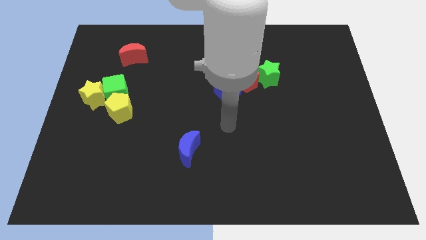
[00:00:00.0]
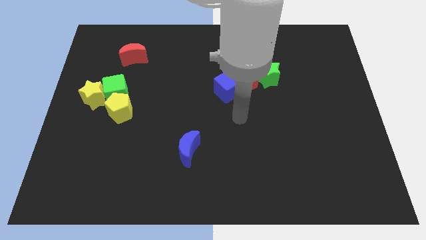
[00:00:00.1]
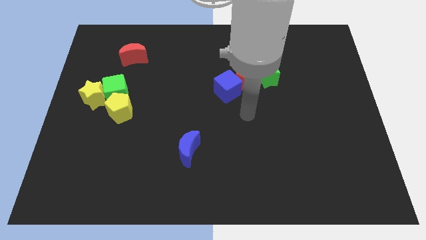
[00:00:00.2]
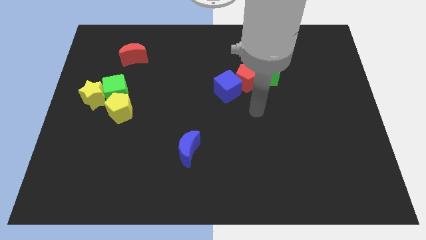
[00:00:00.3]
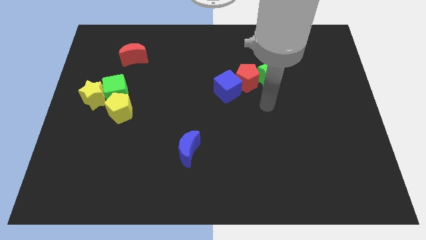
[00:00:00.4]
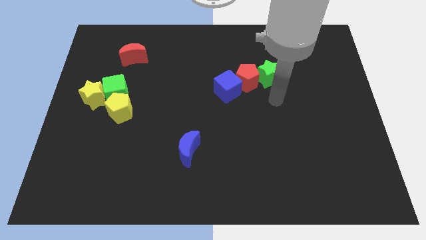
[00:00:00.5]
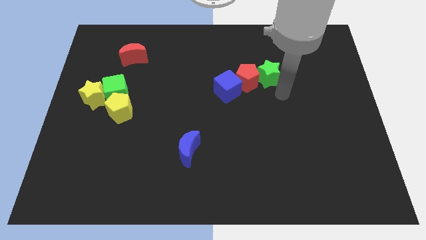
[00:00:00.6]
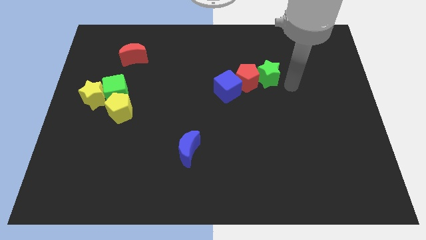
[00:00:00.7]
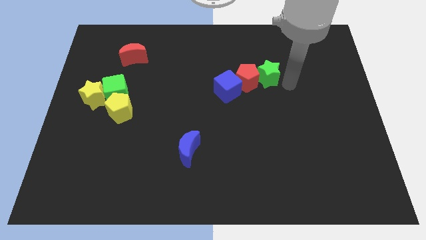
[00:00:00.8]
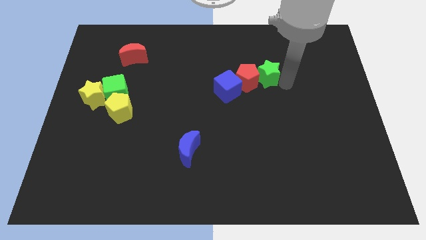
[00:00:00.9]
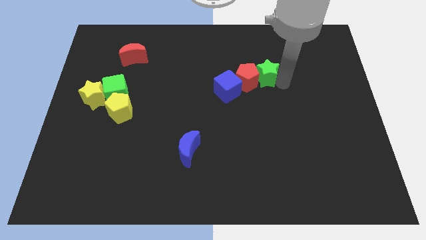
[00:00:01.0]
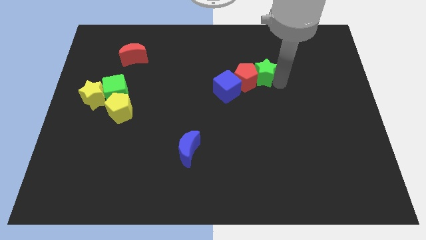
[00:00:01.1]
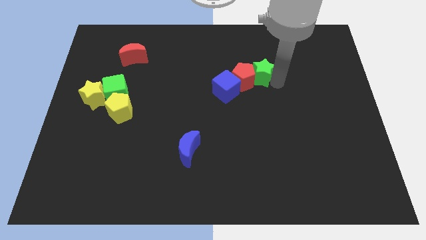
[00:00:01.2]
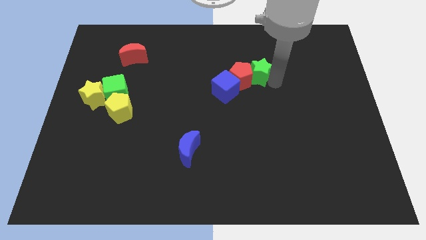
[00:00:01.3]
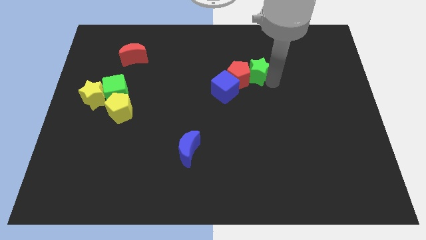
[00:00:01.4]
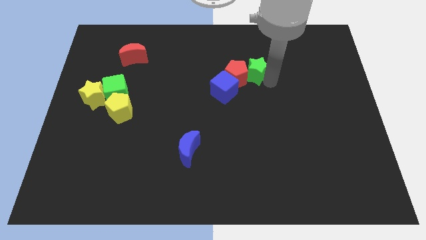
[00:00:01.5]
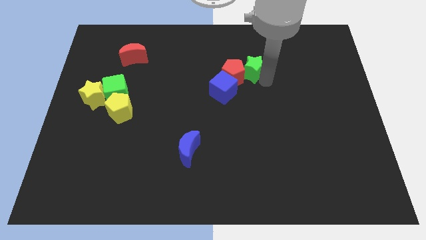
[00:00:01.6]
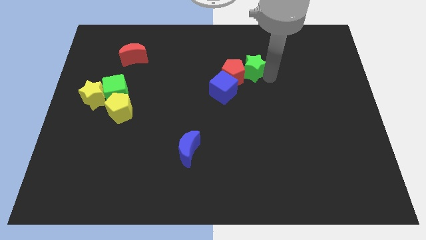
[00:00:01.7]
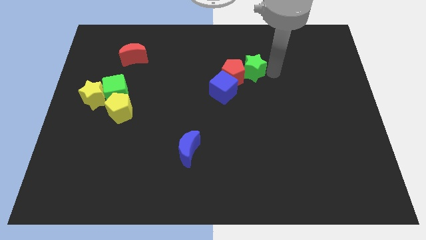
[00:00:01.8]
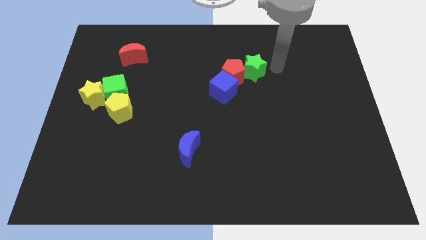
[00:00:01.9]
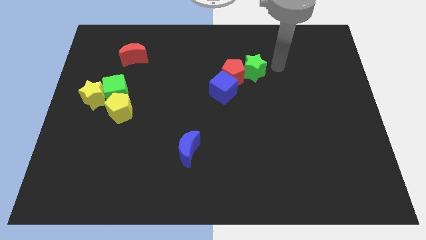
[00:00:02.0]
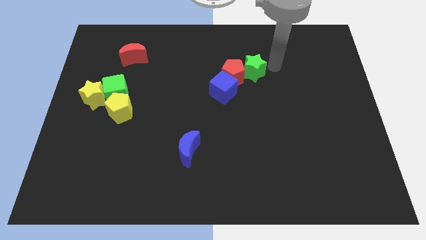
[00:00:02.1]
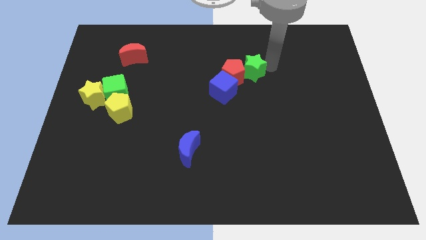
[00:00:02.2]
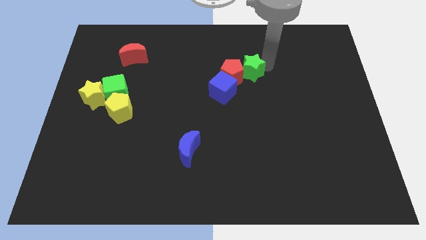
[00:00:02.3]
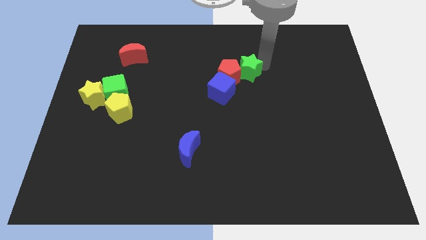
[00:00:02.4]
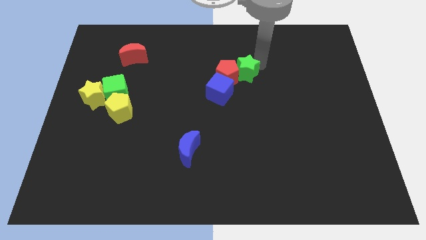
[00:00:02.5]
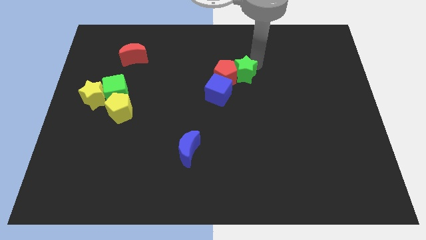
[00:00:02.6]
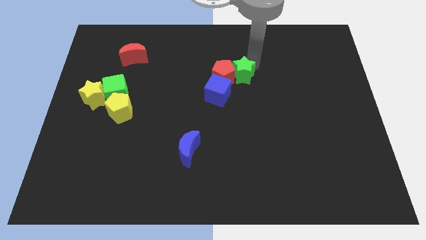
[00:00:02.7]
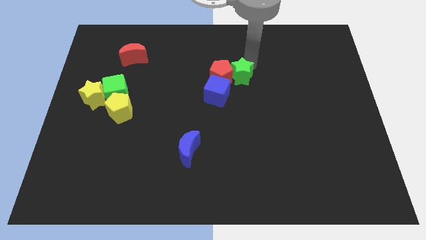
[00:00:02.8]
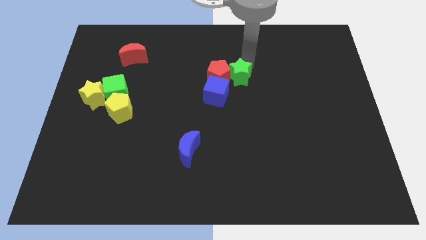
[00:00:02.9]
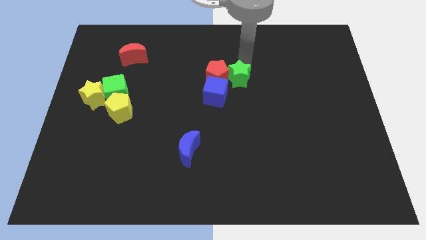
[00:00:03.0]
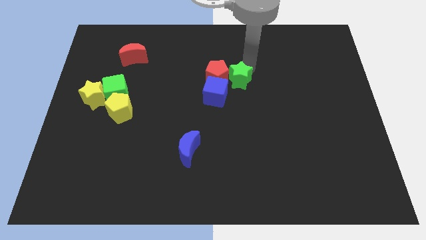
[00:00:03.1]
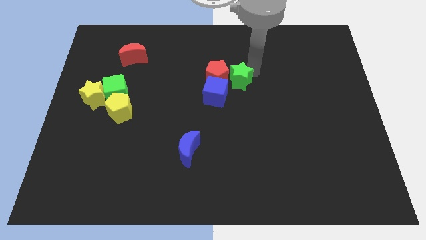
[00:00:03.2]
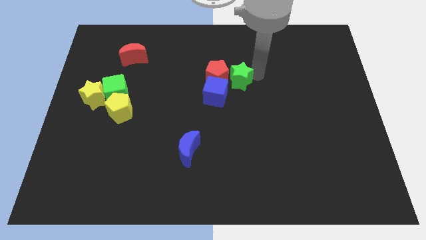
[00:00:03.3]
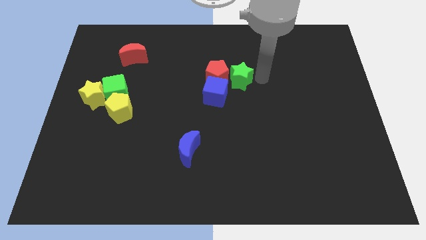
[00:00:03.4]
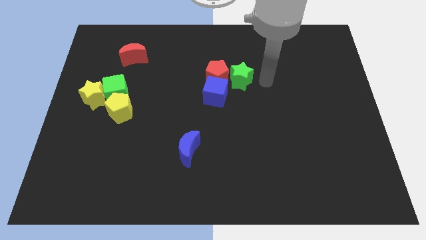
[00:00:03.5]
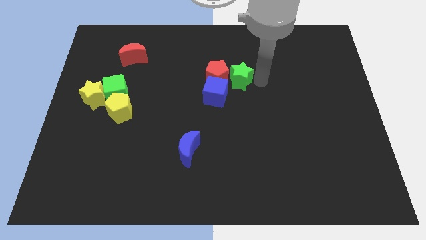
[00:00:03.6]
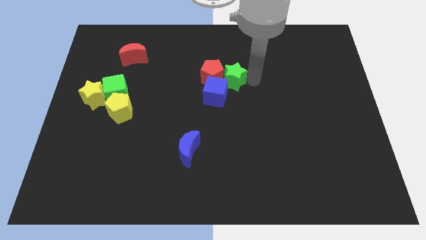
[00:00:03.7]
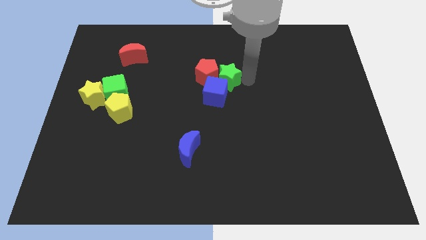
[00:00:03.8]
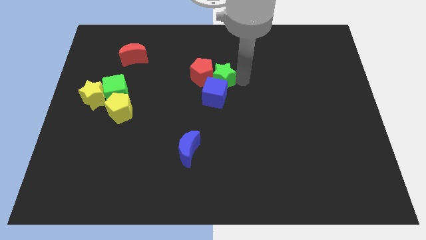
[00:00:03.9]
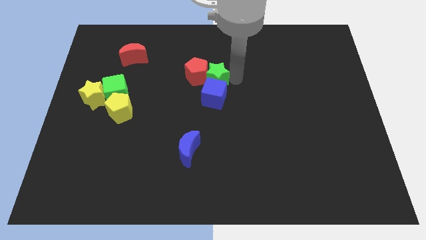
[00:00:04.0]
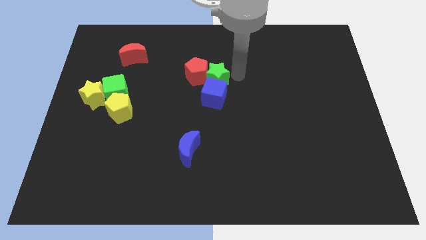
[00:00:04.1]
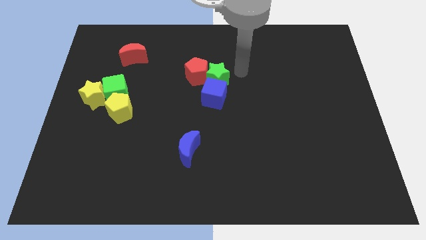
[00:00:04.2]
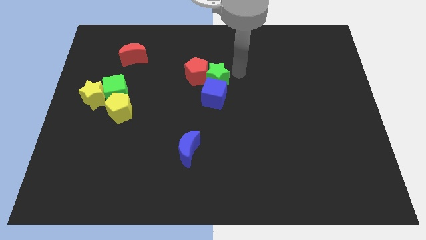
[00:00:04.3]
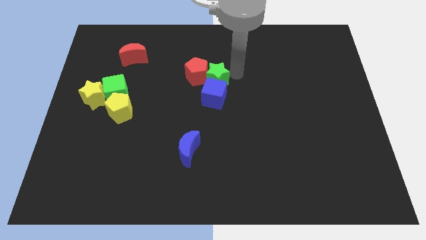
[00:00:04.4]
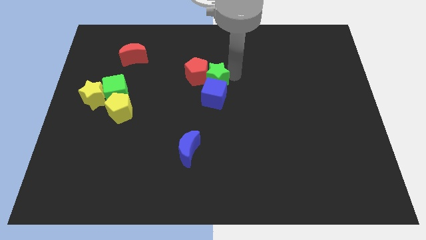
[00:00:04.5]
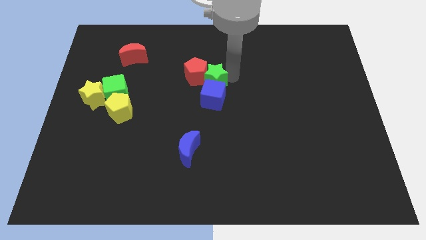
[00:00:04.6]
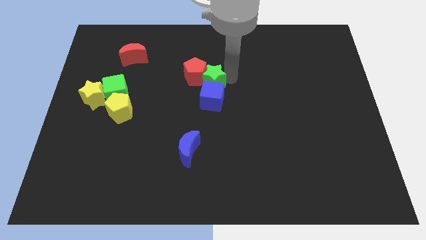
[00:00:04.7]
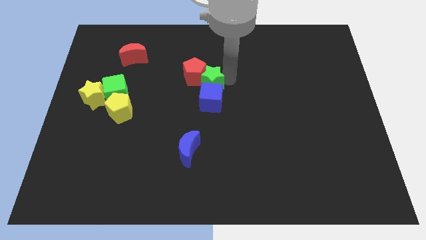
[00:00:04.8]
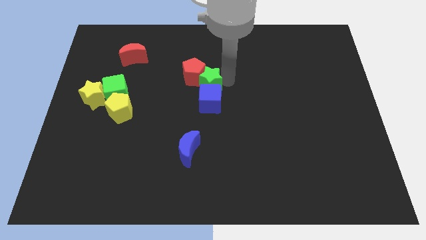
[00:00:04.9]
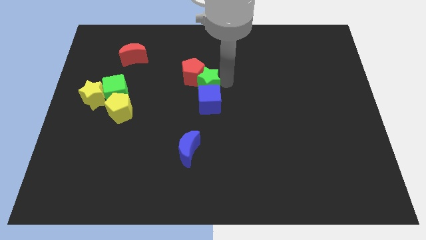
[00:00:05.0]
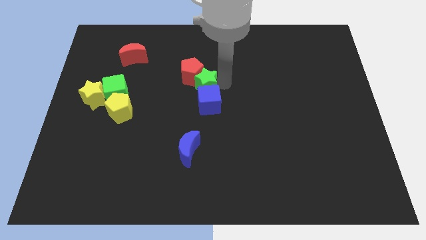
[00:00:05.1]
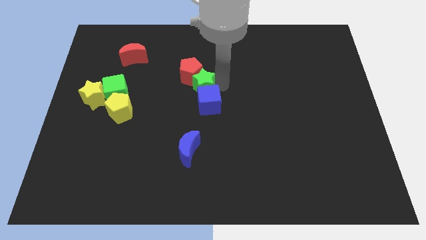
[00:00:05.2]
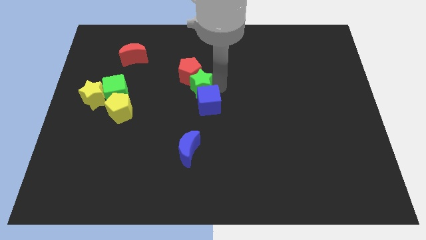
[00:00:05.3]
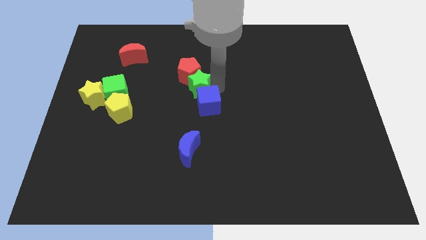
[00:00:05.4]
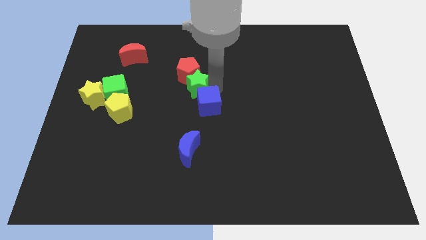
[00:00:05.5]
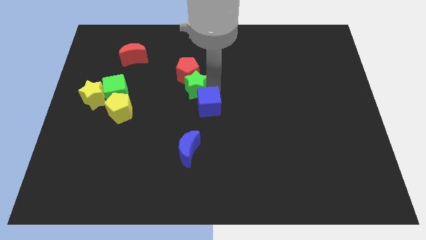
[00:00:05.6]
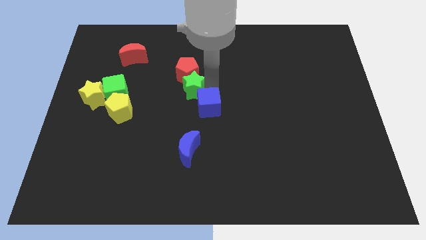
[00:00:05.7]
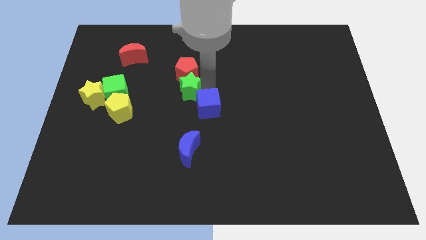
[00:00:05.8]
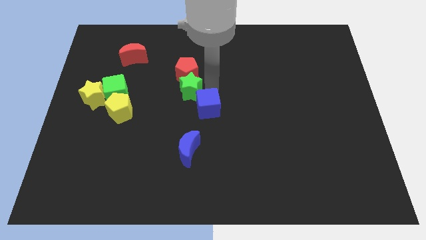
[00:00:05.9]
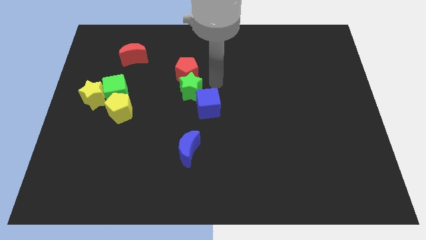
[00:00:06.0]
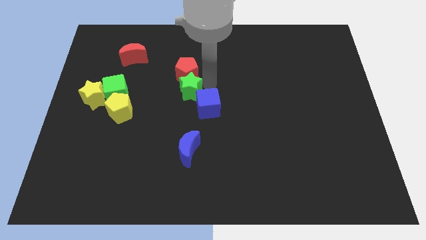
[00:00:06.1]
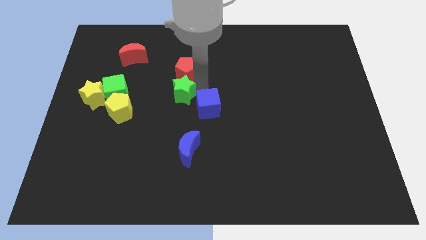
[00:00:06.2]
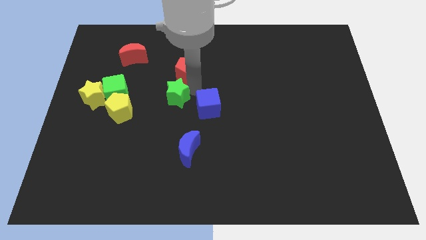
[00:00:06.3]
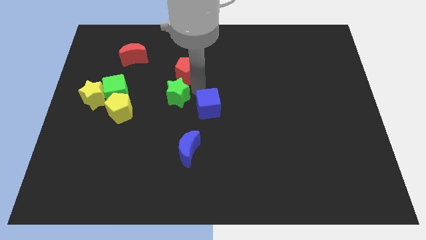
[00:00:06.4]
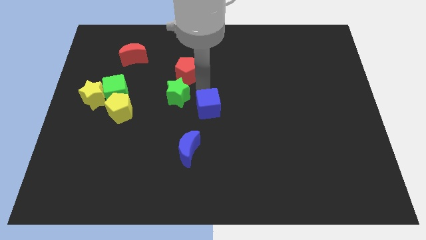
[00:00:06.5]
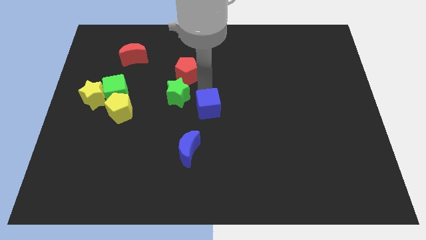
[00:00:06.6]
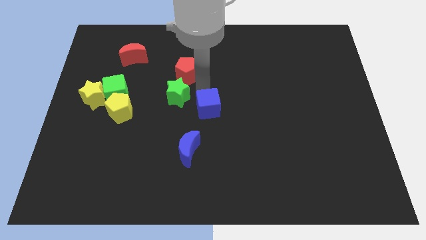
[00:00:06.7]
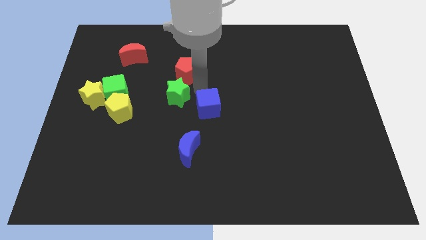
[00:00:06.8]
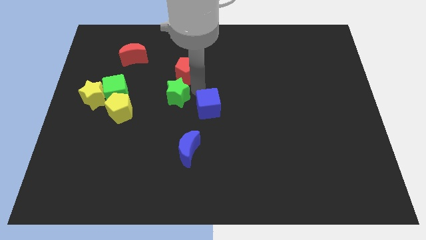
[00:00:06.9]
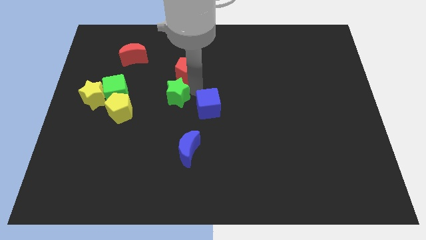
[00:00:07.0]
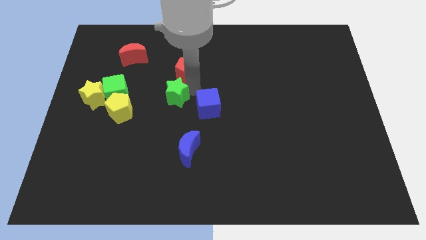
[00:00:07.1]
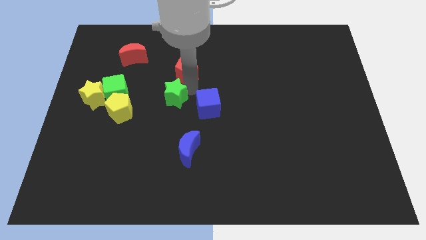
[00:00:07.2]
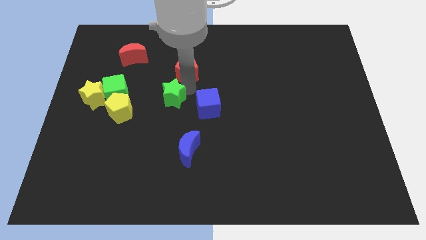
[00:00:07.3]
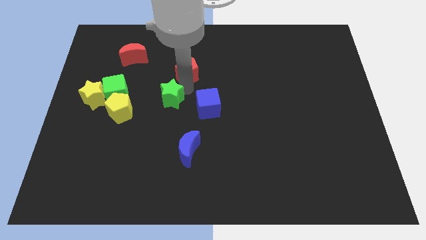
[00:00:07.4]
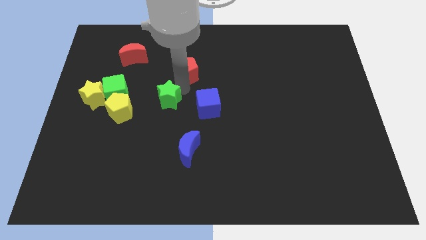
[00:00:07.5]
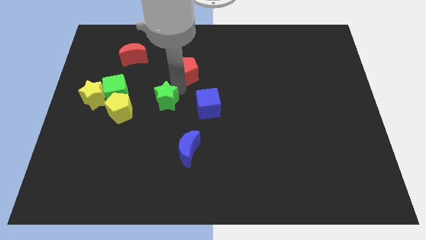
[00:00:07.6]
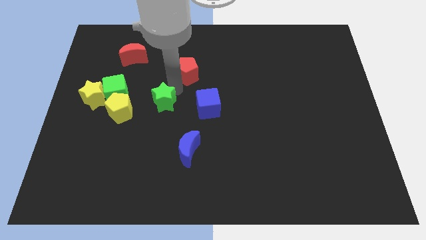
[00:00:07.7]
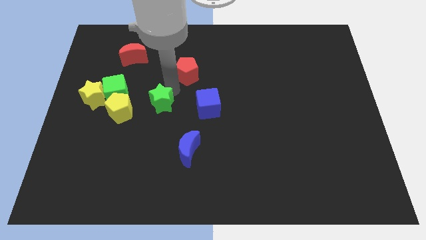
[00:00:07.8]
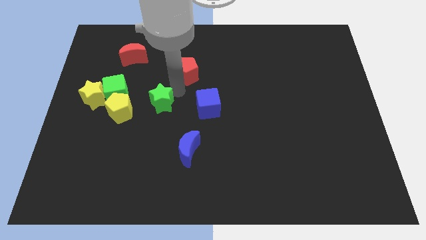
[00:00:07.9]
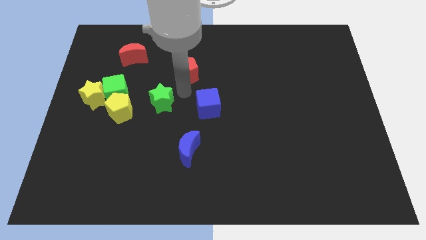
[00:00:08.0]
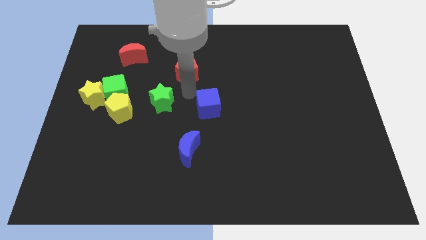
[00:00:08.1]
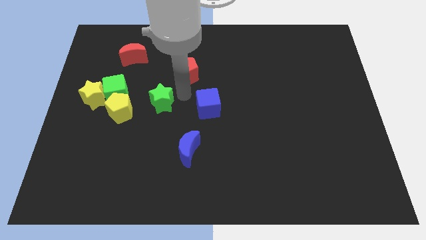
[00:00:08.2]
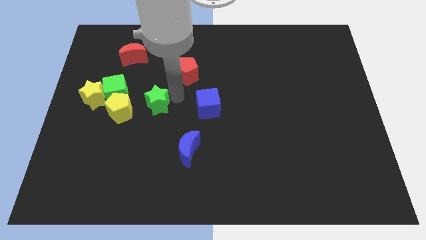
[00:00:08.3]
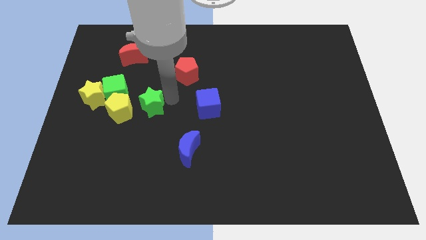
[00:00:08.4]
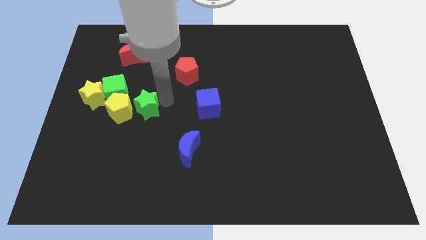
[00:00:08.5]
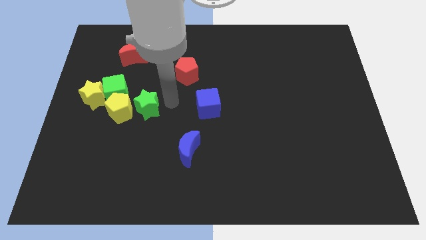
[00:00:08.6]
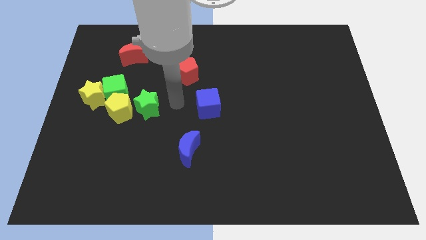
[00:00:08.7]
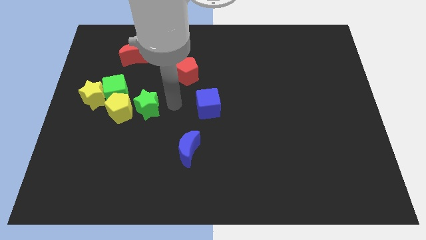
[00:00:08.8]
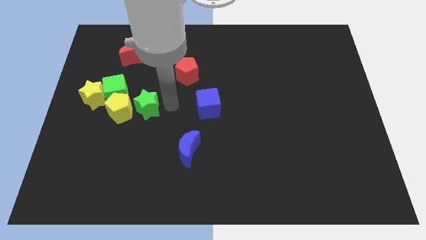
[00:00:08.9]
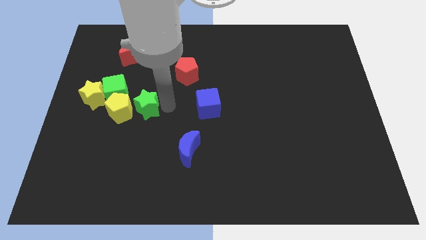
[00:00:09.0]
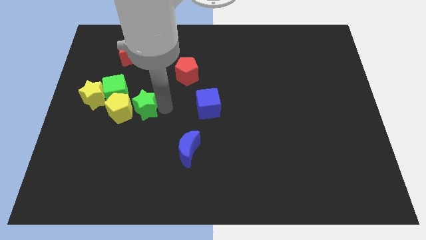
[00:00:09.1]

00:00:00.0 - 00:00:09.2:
move the green star to the yellow pentagon
